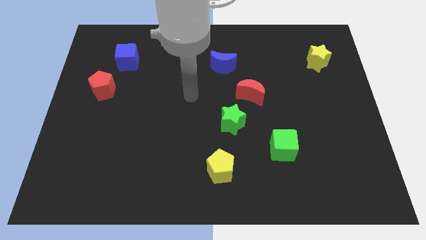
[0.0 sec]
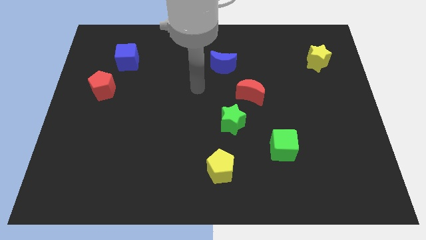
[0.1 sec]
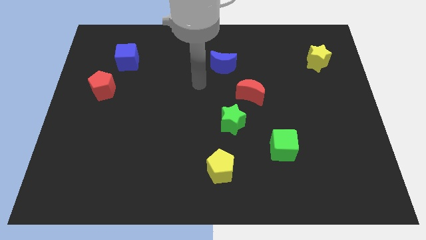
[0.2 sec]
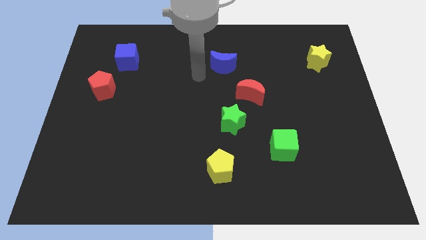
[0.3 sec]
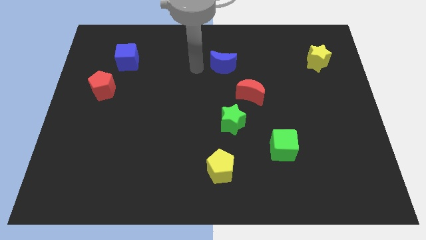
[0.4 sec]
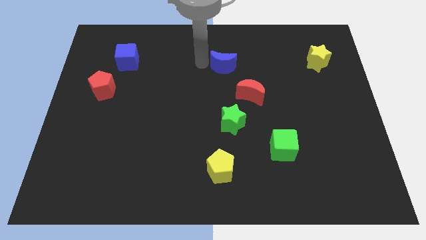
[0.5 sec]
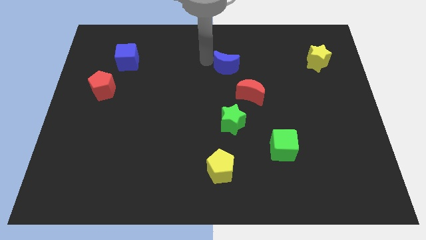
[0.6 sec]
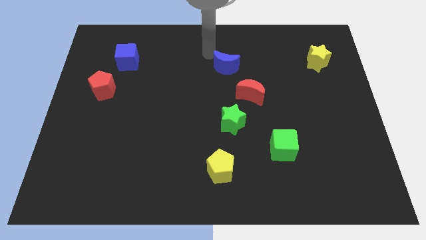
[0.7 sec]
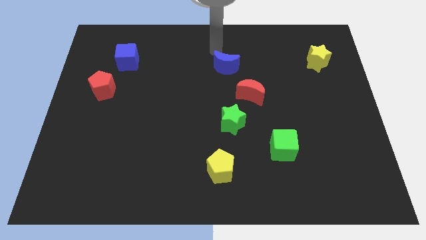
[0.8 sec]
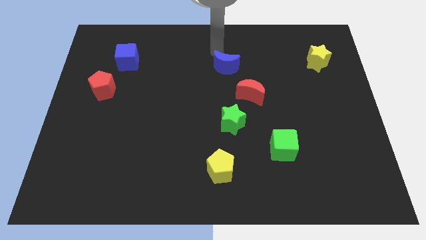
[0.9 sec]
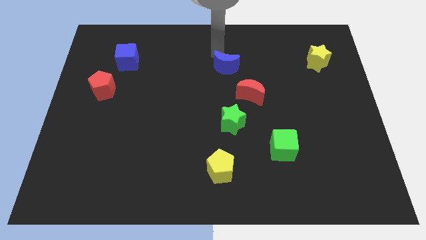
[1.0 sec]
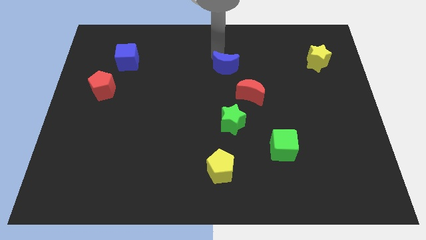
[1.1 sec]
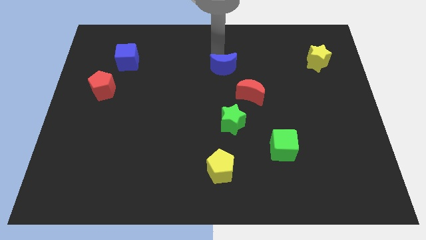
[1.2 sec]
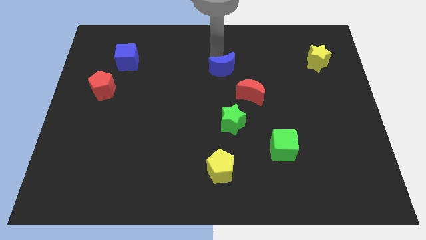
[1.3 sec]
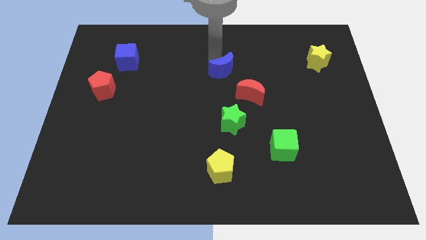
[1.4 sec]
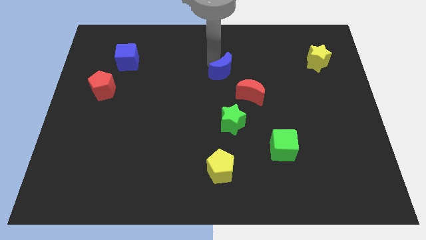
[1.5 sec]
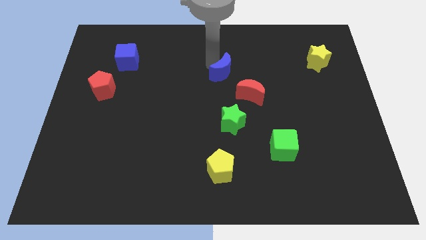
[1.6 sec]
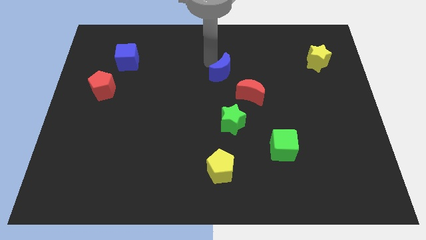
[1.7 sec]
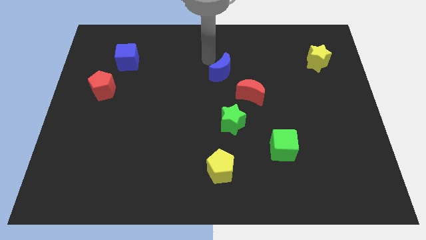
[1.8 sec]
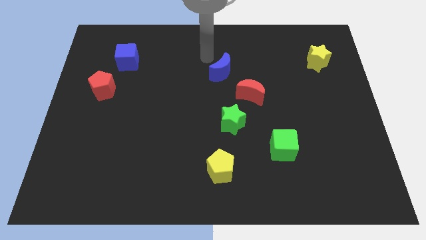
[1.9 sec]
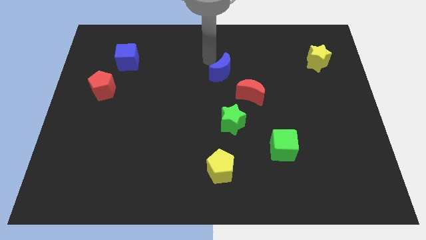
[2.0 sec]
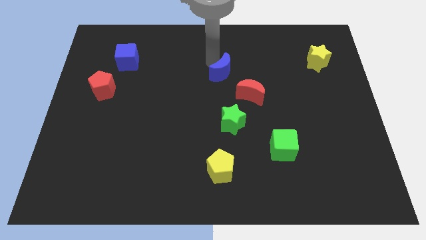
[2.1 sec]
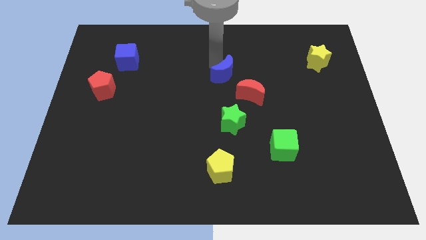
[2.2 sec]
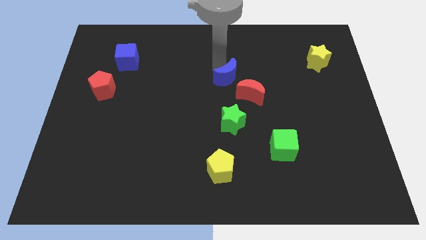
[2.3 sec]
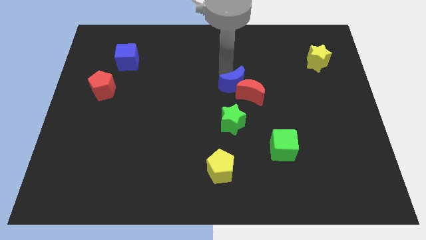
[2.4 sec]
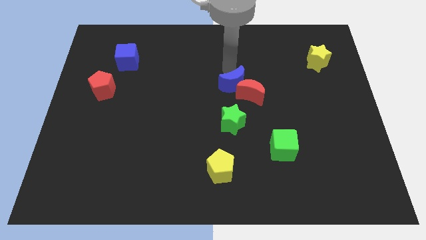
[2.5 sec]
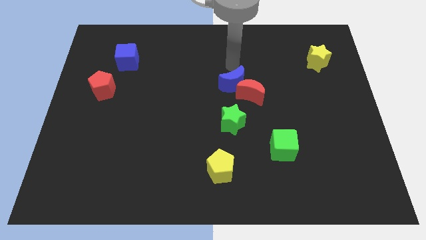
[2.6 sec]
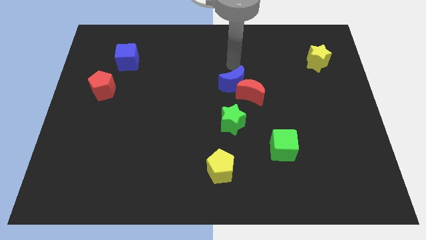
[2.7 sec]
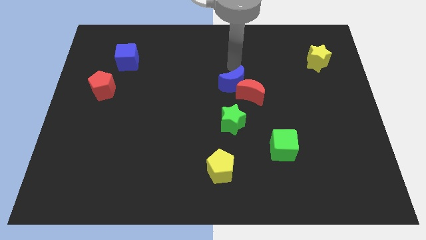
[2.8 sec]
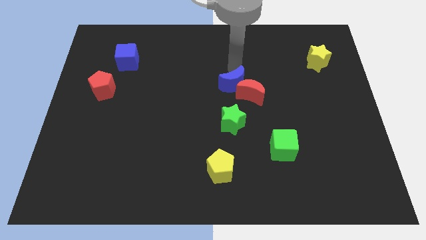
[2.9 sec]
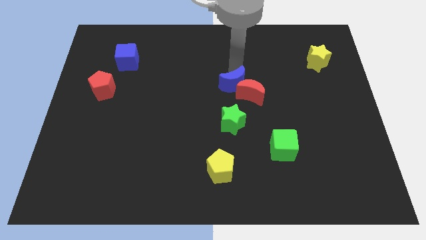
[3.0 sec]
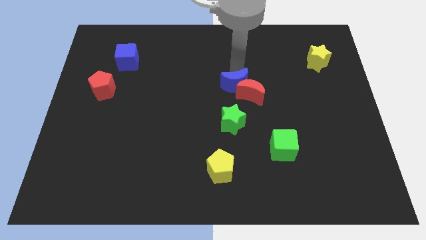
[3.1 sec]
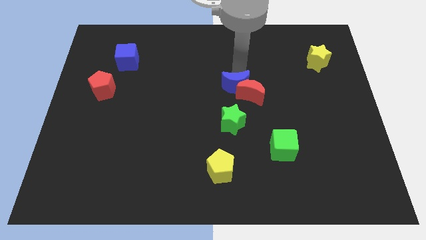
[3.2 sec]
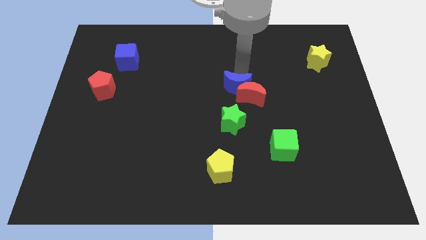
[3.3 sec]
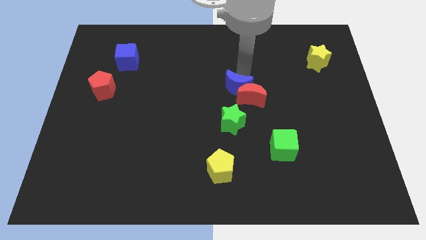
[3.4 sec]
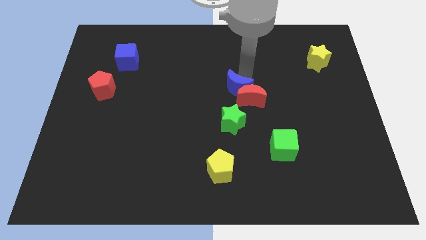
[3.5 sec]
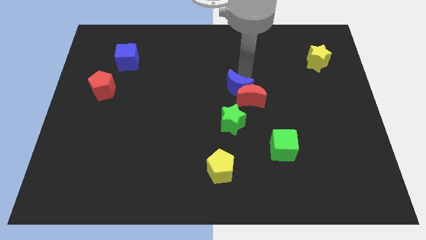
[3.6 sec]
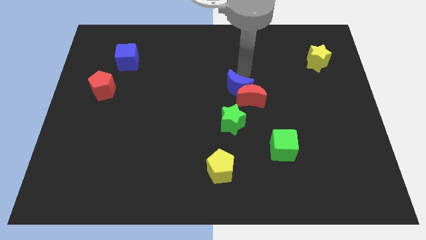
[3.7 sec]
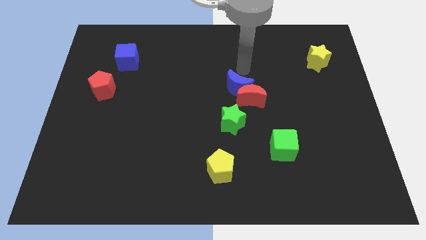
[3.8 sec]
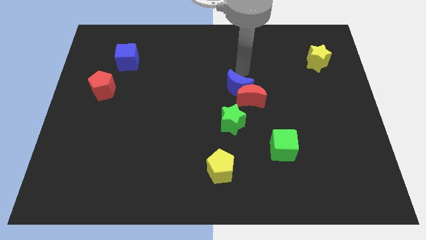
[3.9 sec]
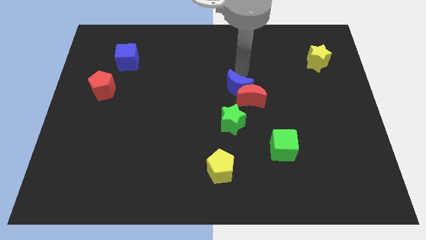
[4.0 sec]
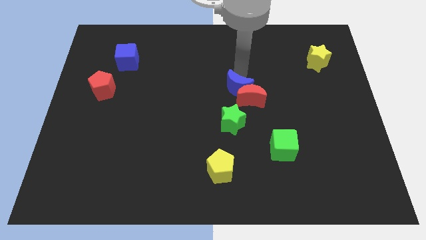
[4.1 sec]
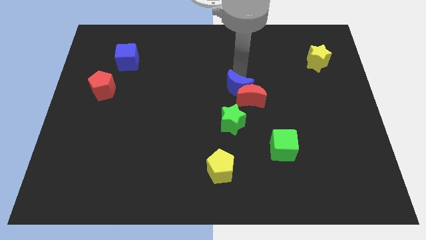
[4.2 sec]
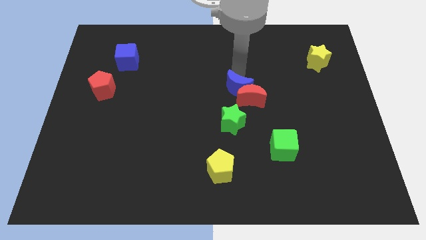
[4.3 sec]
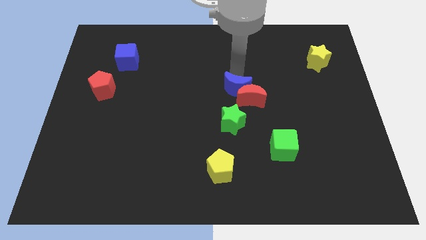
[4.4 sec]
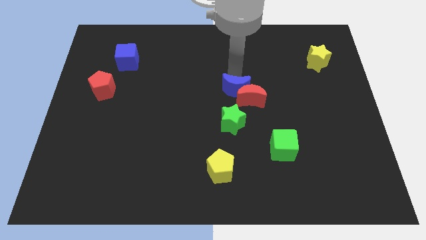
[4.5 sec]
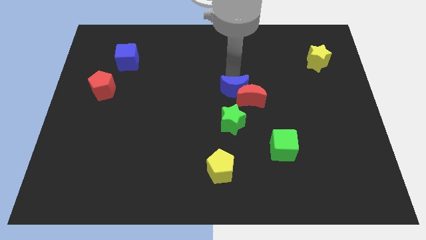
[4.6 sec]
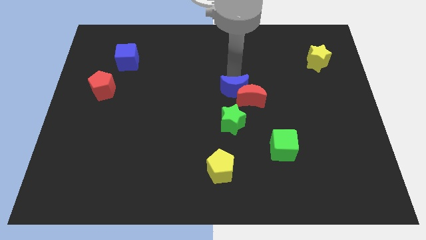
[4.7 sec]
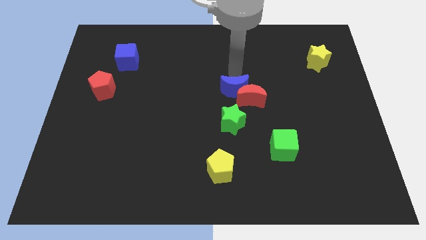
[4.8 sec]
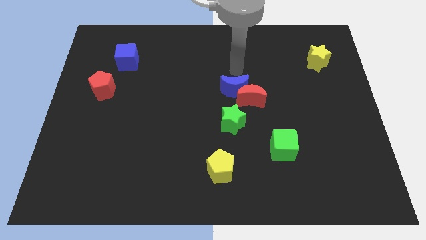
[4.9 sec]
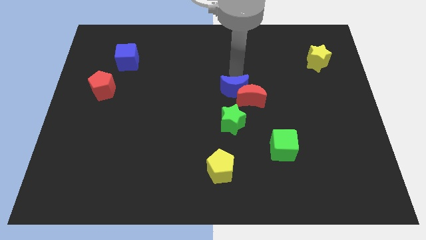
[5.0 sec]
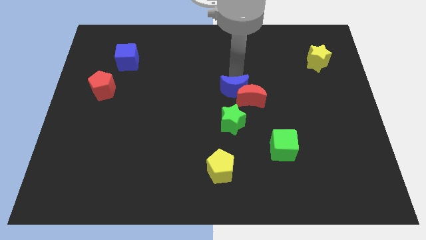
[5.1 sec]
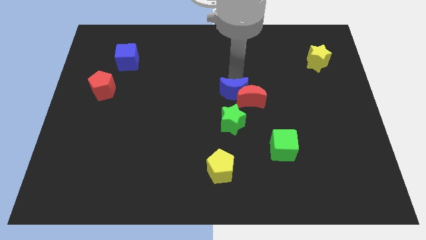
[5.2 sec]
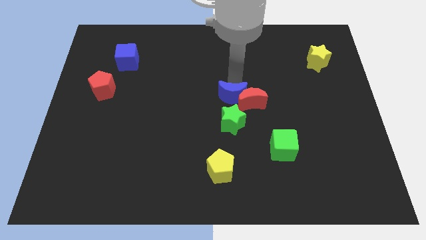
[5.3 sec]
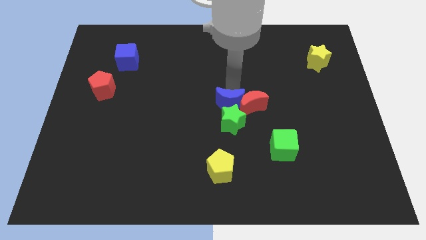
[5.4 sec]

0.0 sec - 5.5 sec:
put the blue moon next to the green star

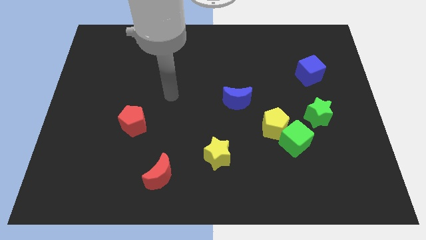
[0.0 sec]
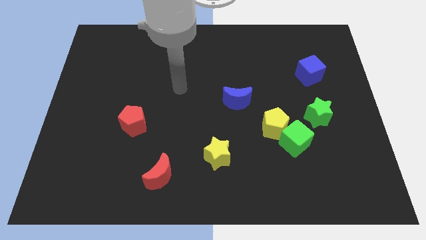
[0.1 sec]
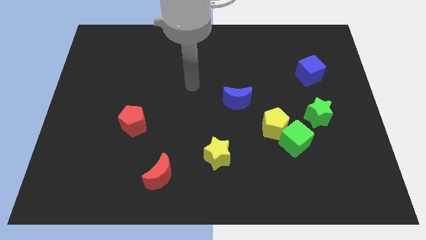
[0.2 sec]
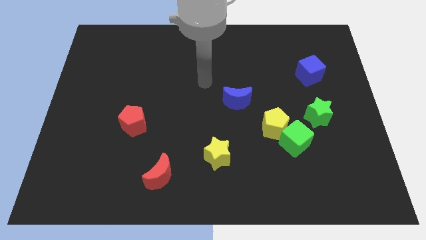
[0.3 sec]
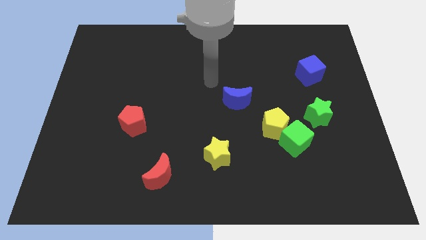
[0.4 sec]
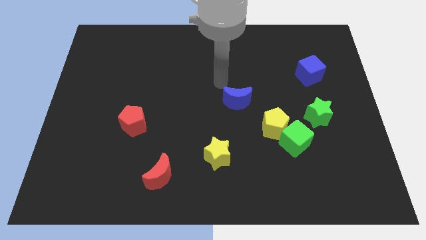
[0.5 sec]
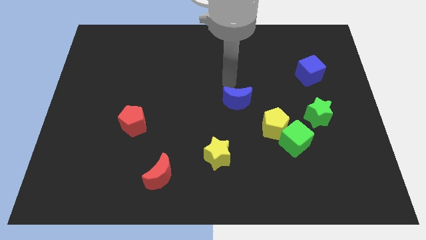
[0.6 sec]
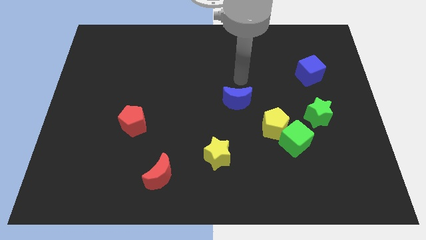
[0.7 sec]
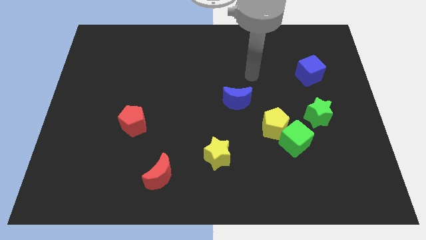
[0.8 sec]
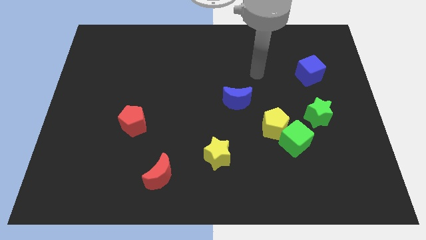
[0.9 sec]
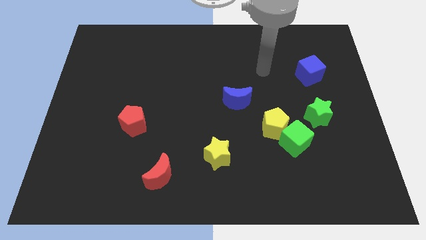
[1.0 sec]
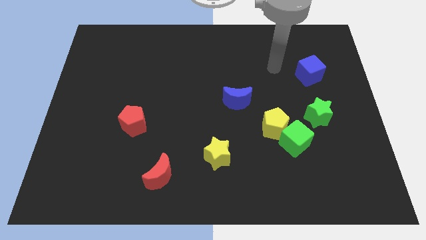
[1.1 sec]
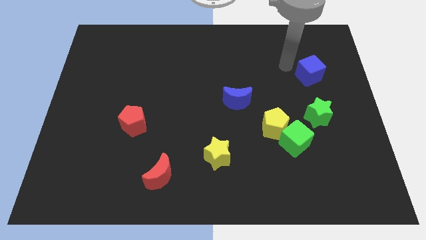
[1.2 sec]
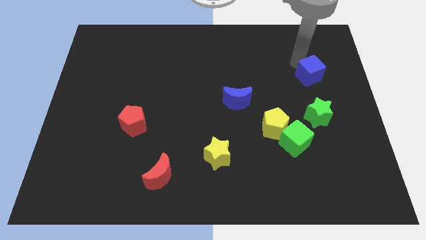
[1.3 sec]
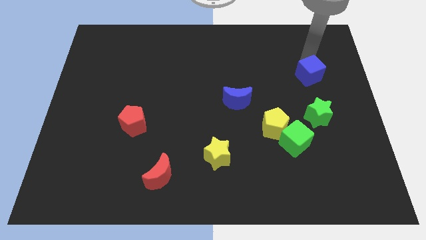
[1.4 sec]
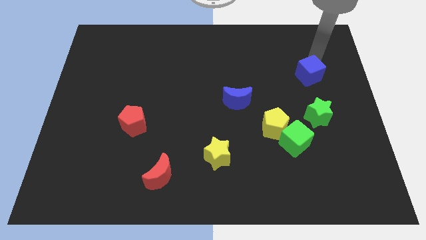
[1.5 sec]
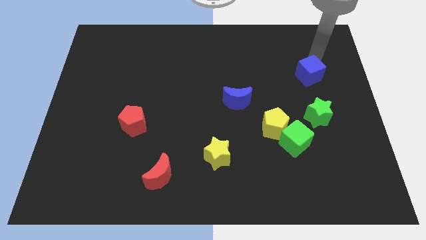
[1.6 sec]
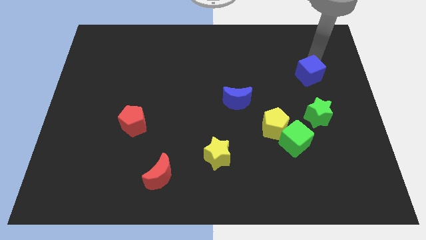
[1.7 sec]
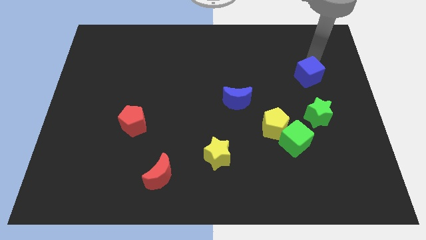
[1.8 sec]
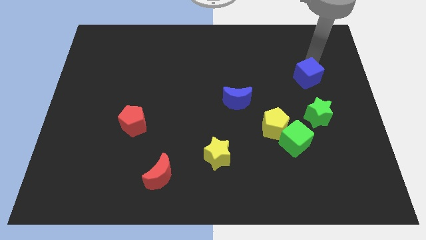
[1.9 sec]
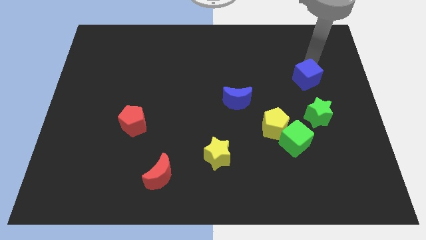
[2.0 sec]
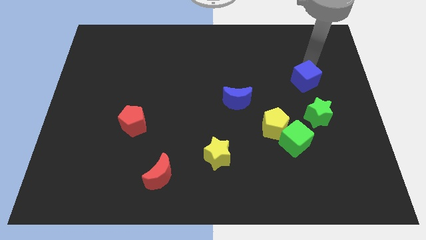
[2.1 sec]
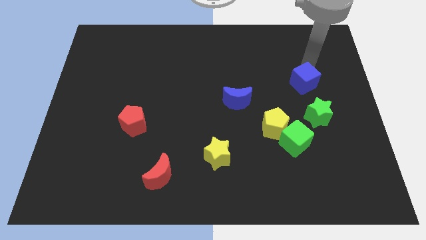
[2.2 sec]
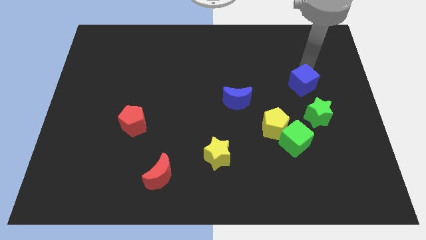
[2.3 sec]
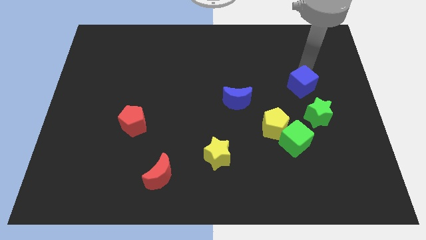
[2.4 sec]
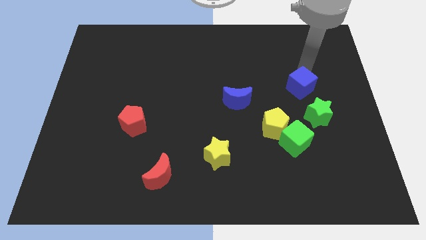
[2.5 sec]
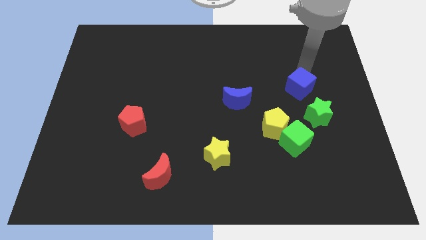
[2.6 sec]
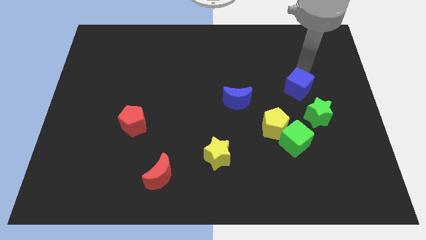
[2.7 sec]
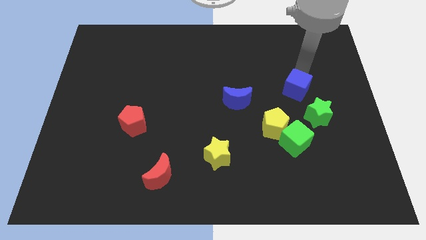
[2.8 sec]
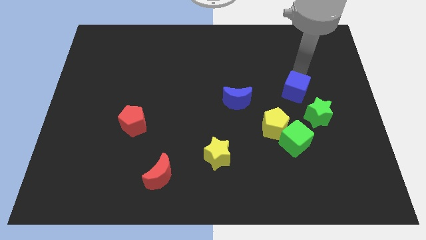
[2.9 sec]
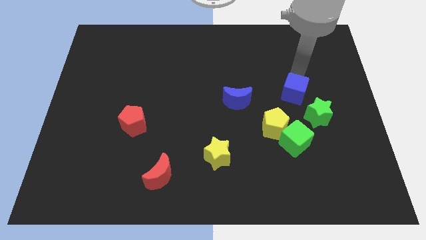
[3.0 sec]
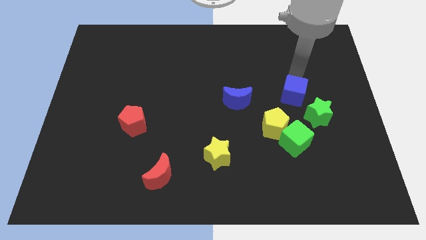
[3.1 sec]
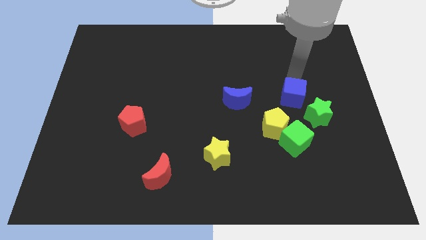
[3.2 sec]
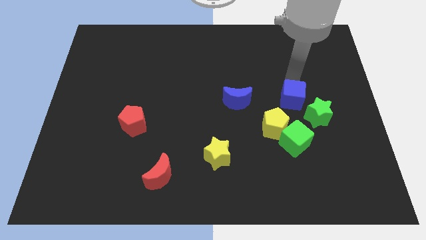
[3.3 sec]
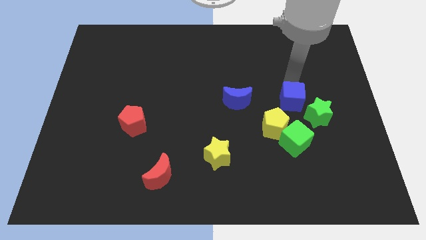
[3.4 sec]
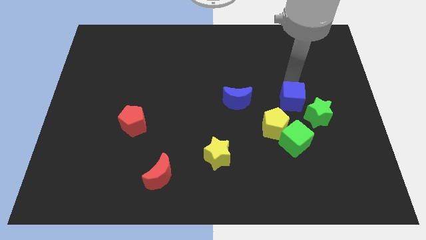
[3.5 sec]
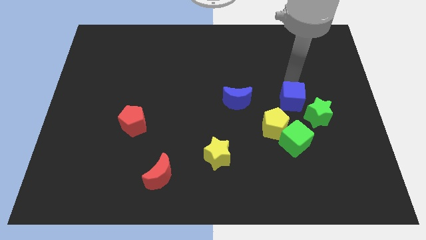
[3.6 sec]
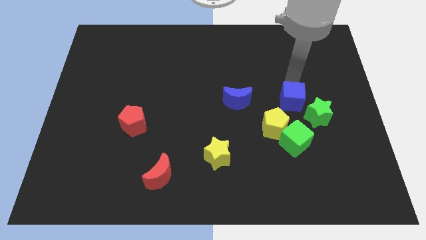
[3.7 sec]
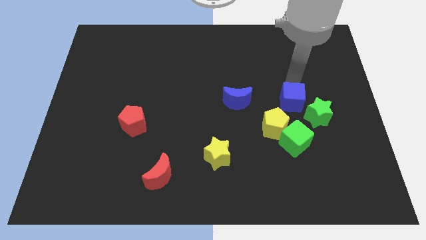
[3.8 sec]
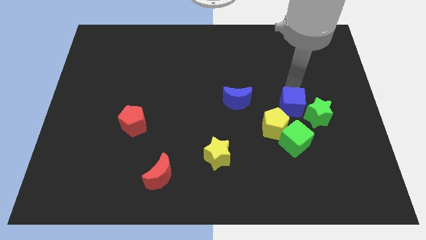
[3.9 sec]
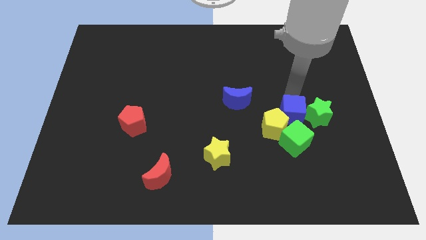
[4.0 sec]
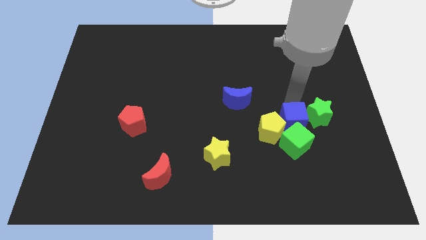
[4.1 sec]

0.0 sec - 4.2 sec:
put the blue cube to the green cube
